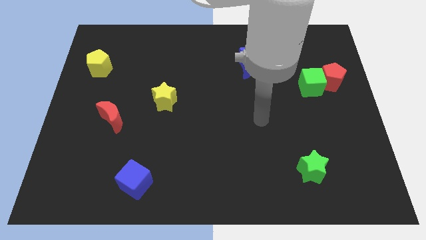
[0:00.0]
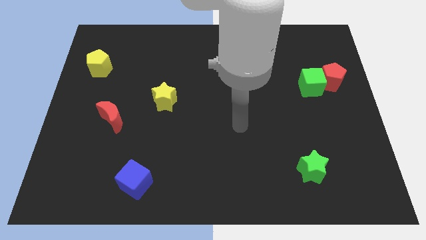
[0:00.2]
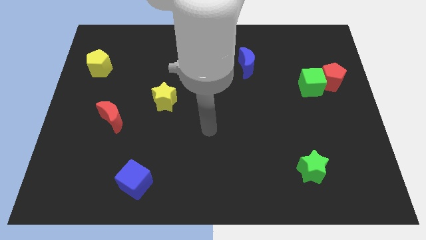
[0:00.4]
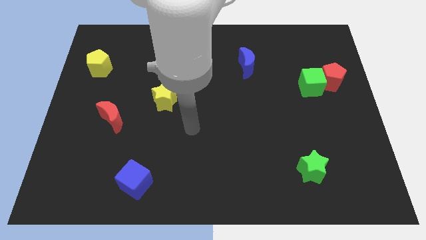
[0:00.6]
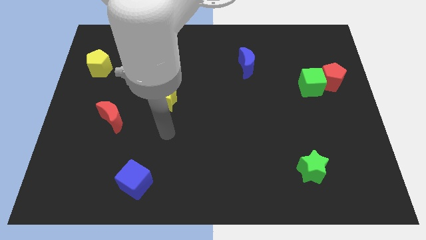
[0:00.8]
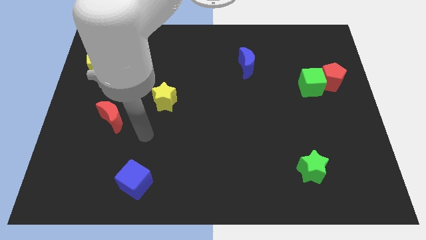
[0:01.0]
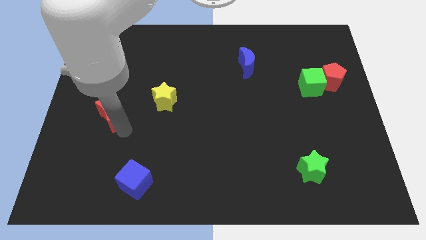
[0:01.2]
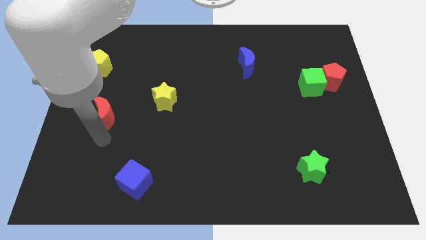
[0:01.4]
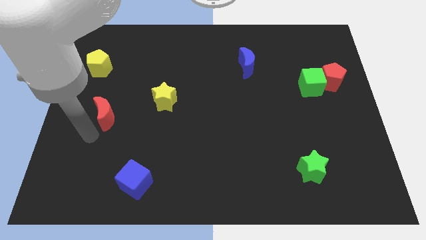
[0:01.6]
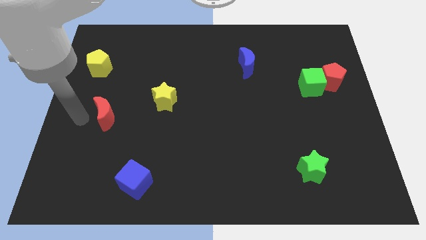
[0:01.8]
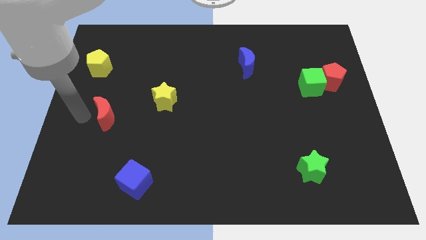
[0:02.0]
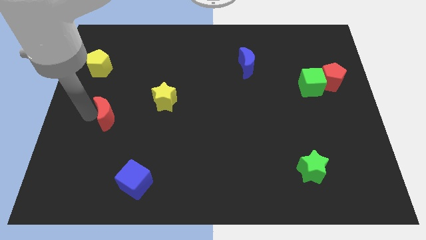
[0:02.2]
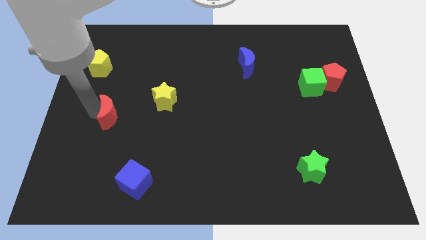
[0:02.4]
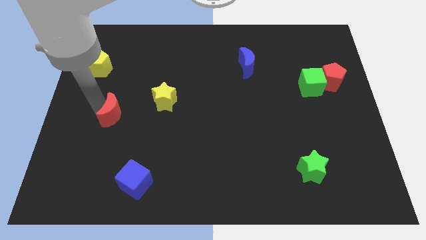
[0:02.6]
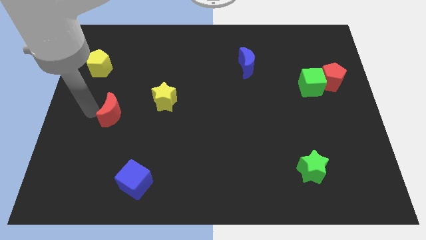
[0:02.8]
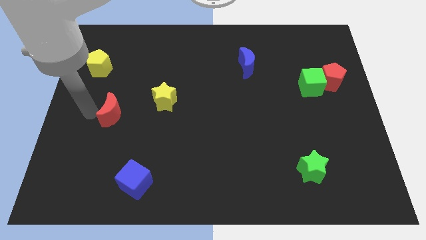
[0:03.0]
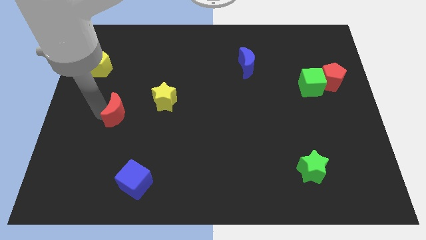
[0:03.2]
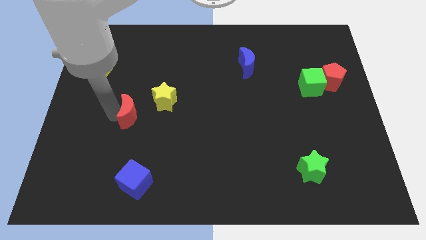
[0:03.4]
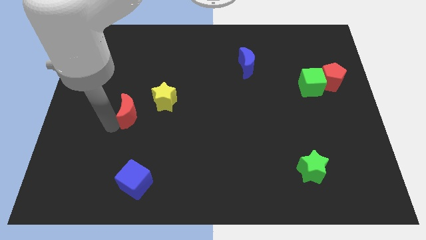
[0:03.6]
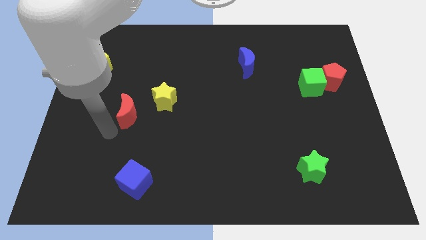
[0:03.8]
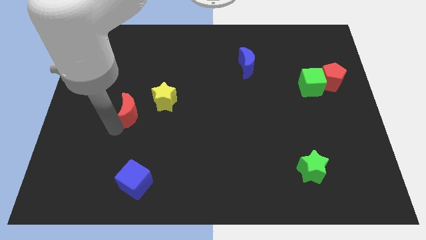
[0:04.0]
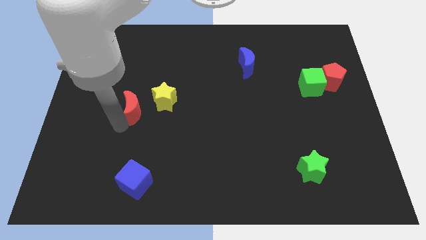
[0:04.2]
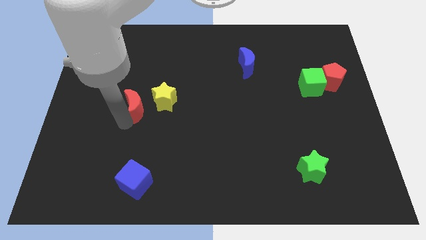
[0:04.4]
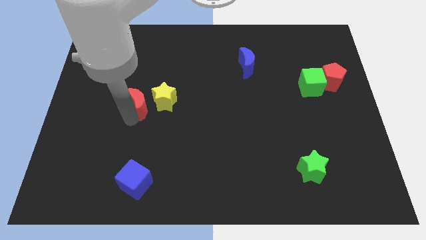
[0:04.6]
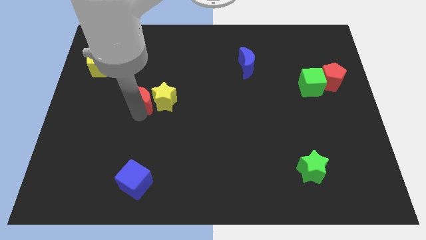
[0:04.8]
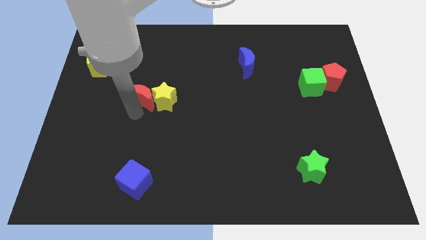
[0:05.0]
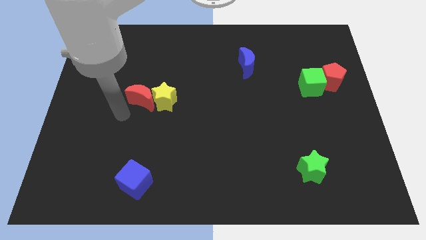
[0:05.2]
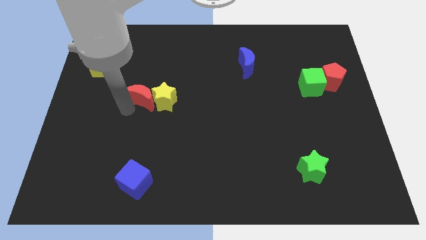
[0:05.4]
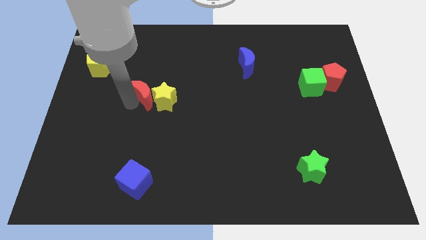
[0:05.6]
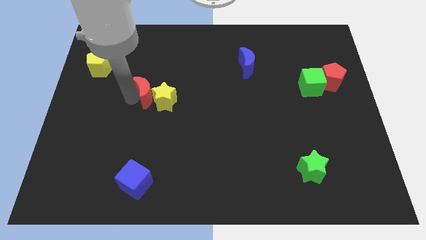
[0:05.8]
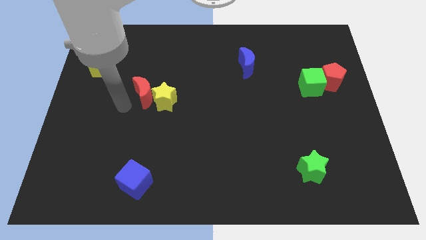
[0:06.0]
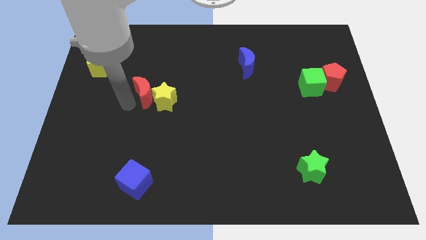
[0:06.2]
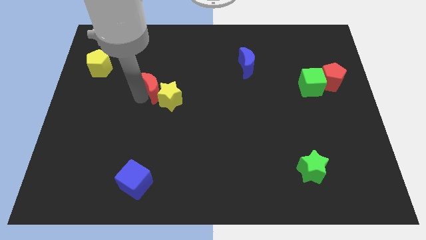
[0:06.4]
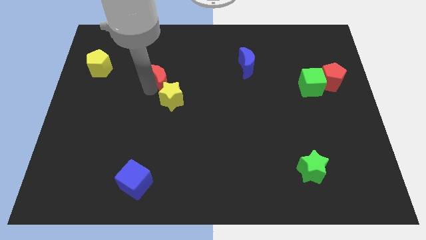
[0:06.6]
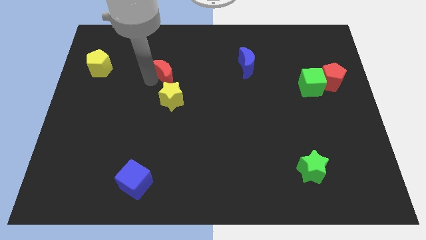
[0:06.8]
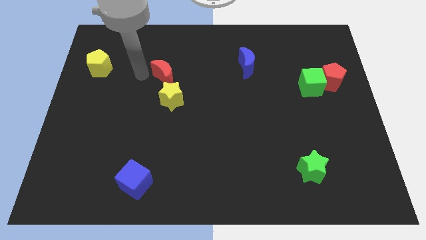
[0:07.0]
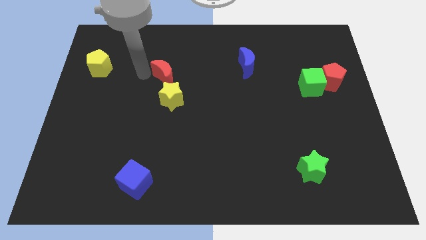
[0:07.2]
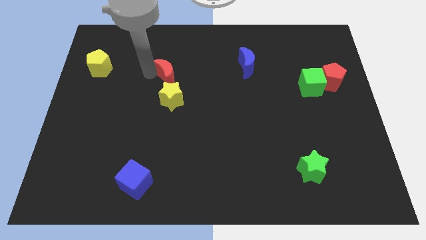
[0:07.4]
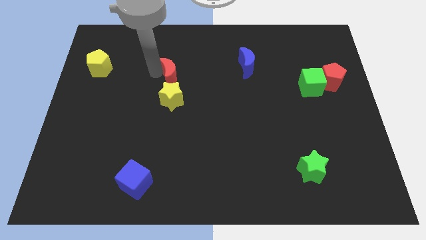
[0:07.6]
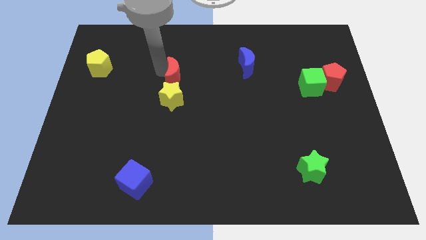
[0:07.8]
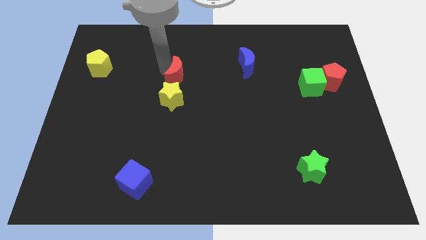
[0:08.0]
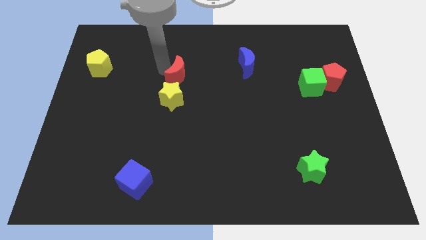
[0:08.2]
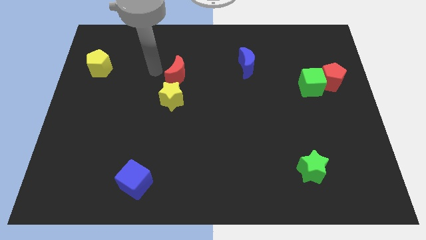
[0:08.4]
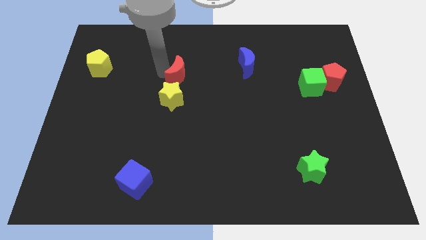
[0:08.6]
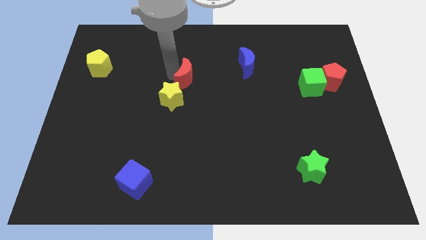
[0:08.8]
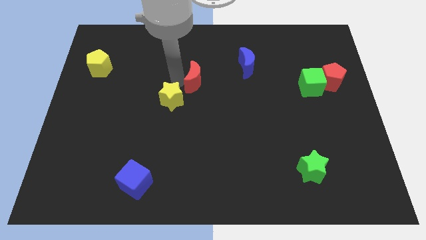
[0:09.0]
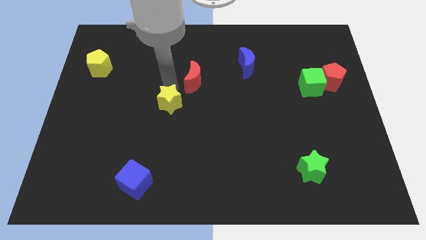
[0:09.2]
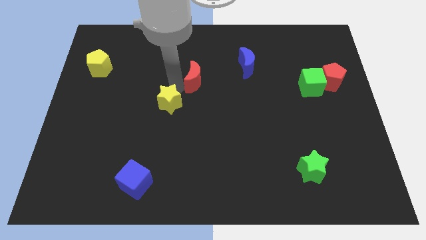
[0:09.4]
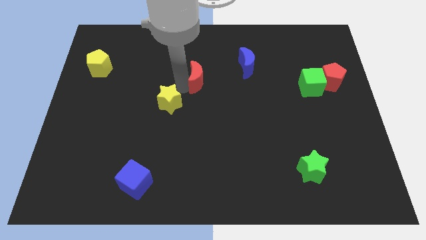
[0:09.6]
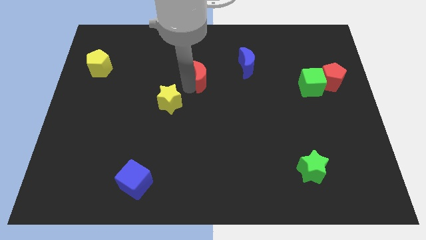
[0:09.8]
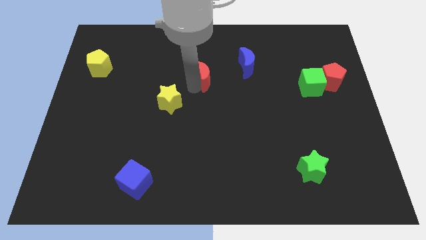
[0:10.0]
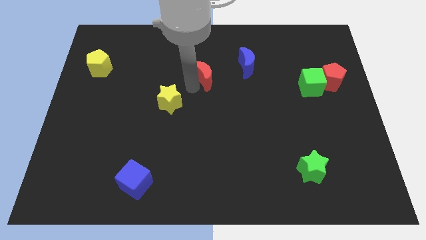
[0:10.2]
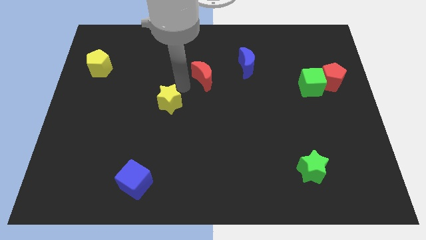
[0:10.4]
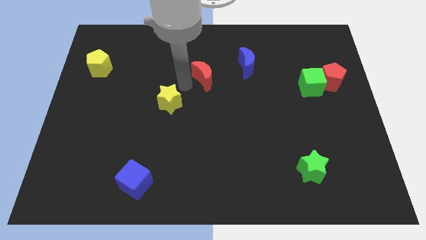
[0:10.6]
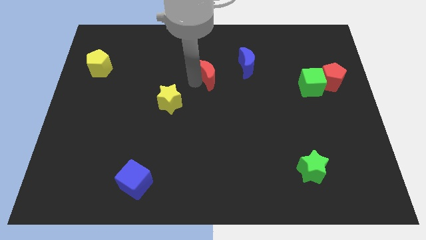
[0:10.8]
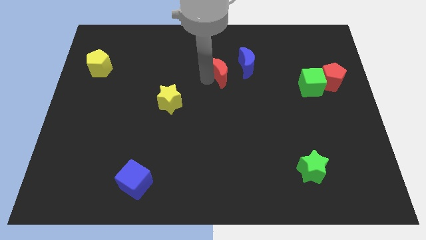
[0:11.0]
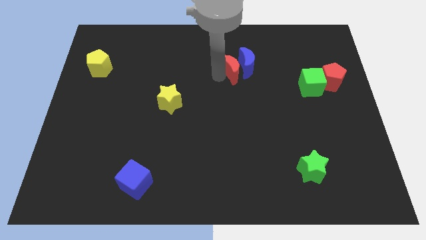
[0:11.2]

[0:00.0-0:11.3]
slide the red moon towards the blue moon

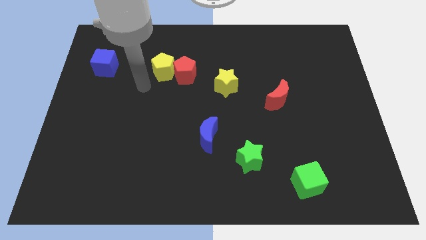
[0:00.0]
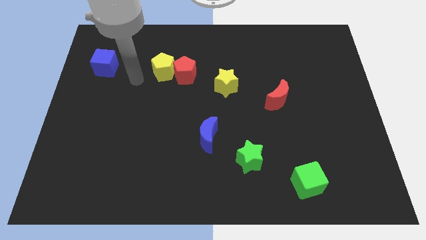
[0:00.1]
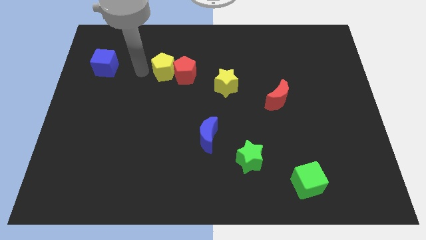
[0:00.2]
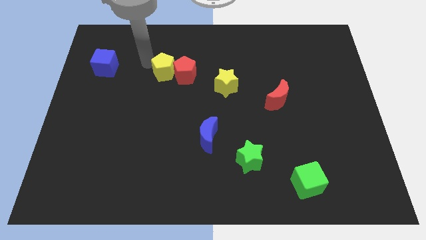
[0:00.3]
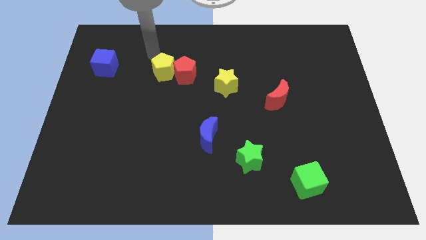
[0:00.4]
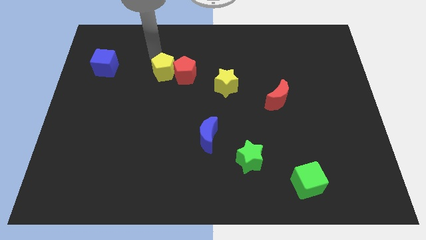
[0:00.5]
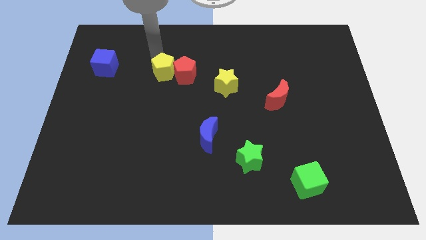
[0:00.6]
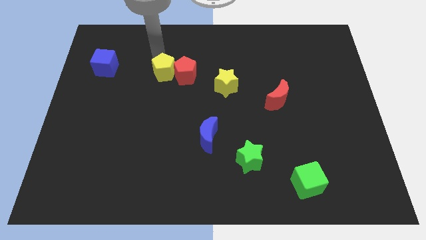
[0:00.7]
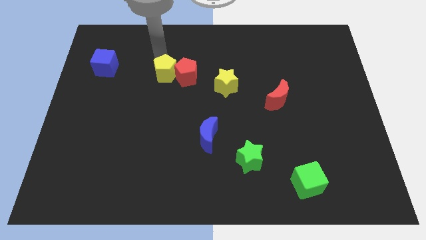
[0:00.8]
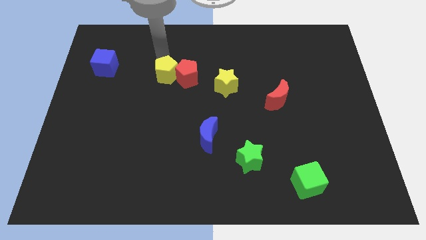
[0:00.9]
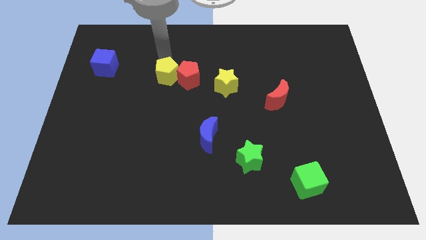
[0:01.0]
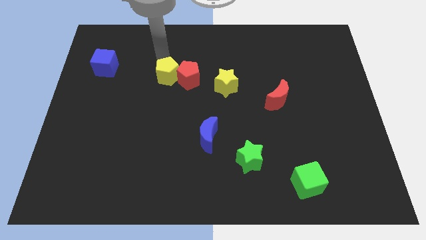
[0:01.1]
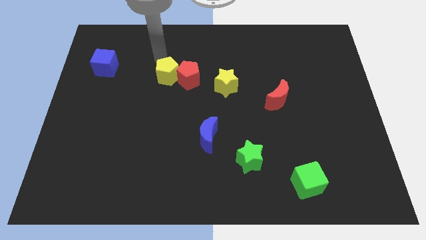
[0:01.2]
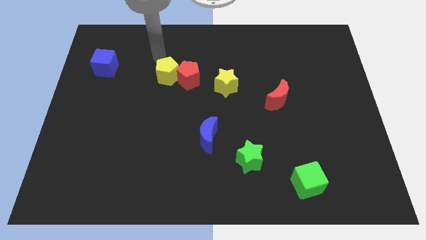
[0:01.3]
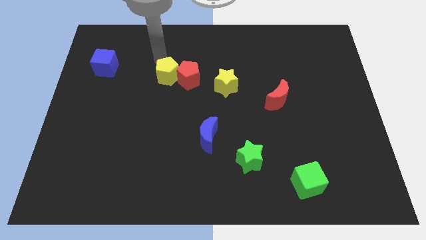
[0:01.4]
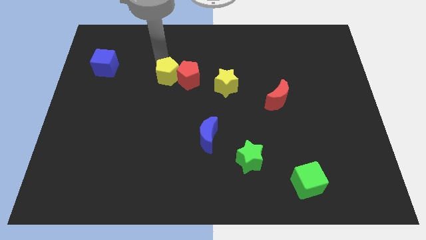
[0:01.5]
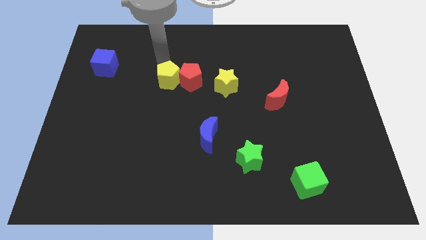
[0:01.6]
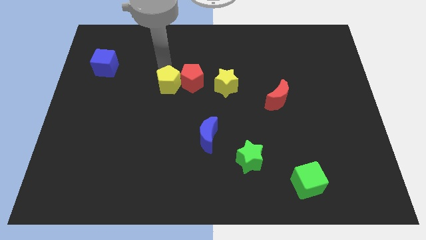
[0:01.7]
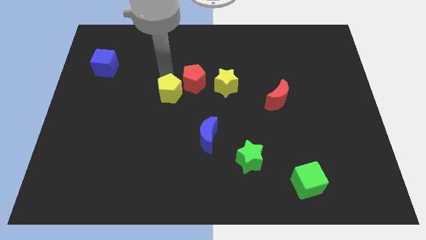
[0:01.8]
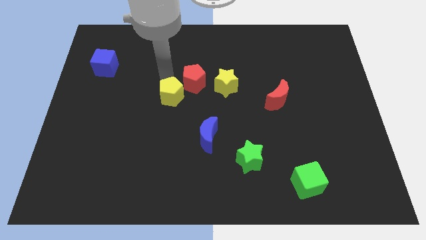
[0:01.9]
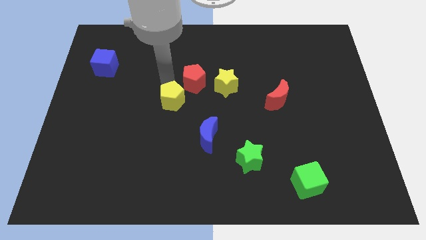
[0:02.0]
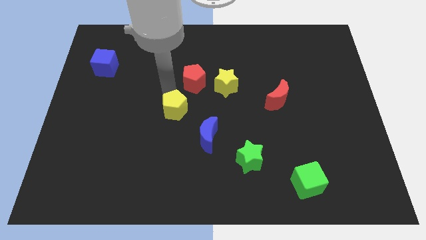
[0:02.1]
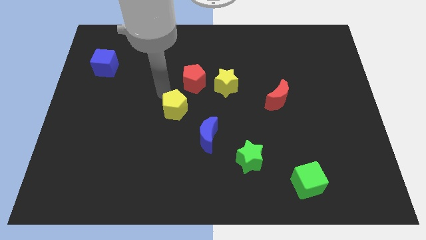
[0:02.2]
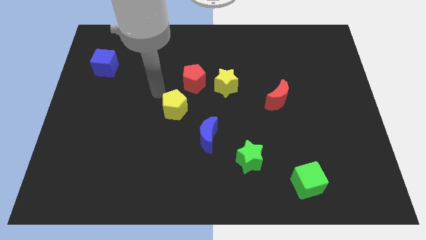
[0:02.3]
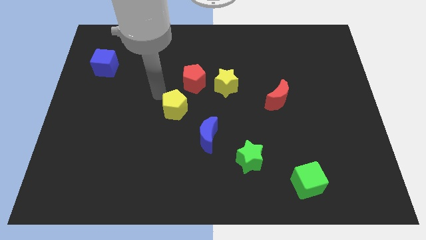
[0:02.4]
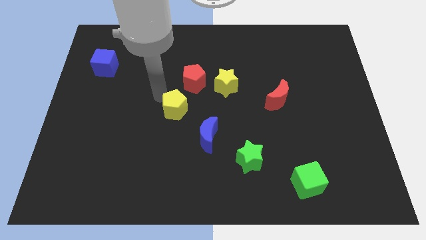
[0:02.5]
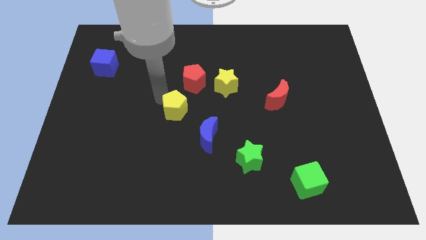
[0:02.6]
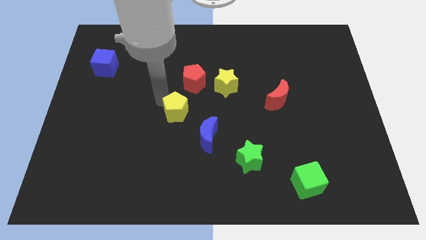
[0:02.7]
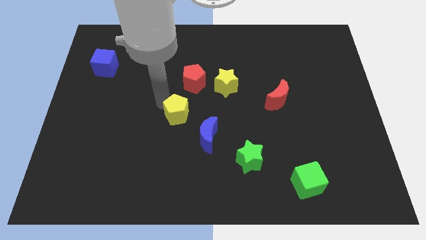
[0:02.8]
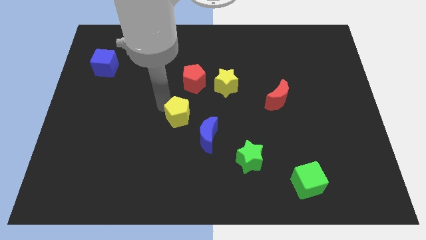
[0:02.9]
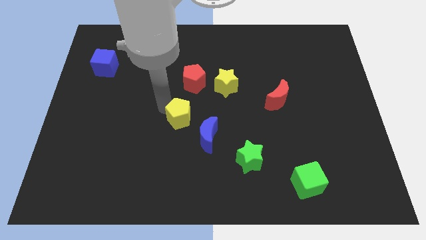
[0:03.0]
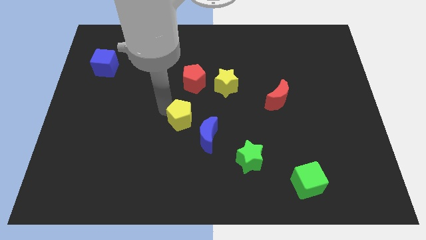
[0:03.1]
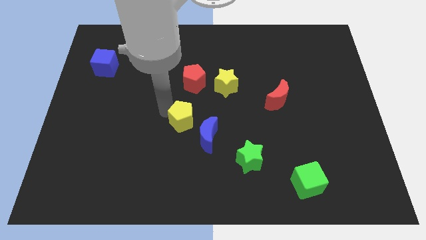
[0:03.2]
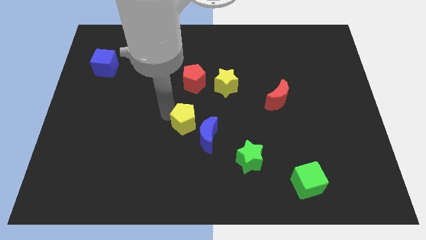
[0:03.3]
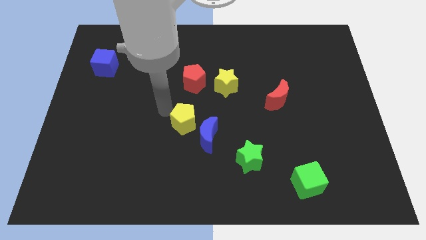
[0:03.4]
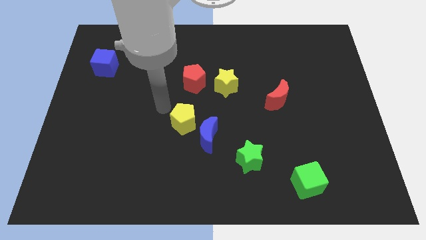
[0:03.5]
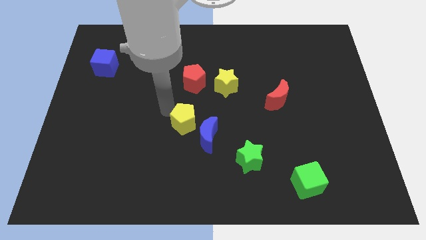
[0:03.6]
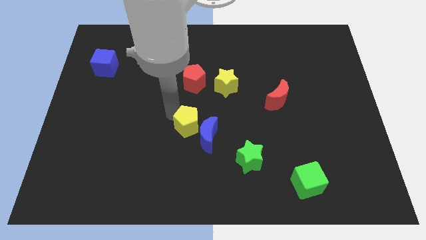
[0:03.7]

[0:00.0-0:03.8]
move the yellow pentagon towards the blue moon
